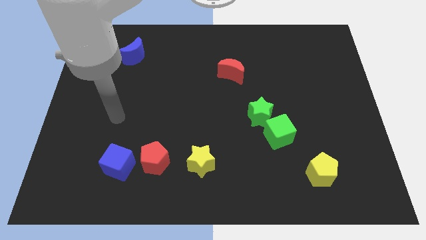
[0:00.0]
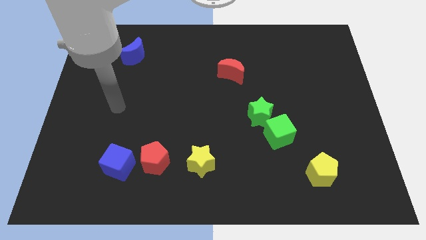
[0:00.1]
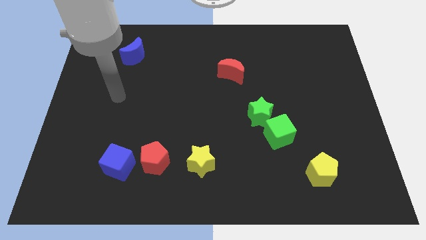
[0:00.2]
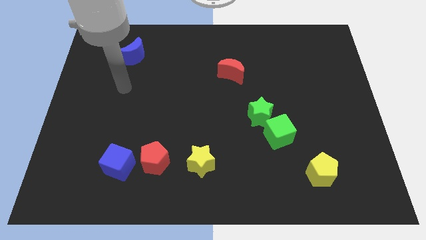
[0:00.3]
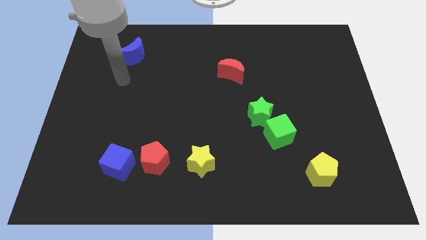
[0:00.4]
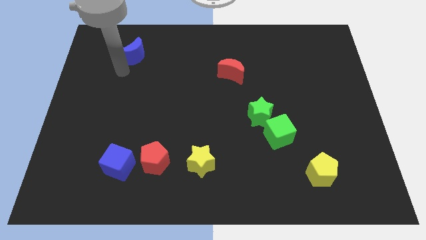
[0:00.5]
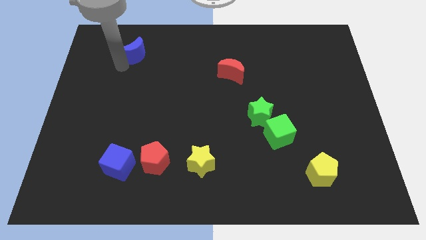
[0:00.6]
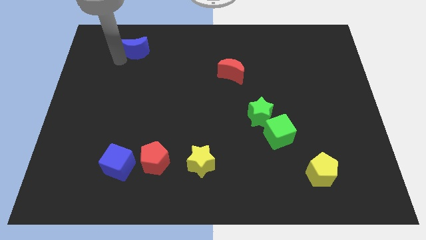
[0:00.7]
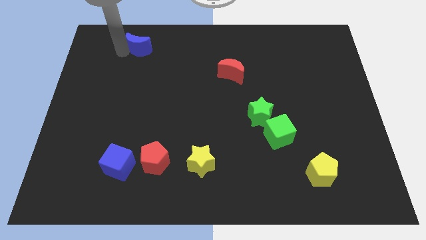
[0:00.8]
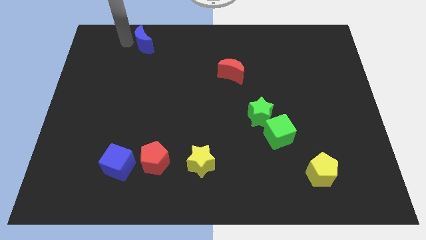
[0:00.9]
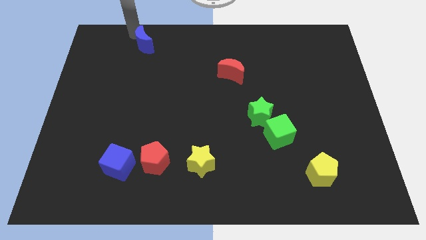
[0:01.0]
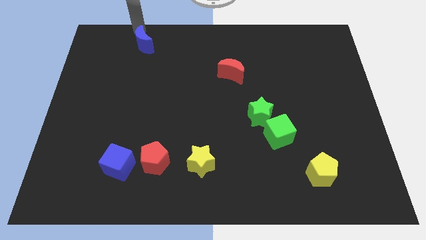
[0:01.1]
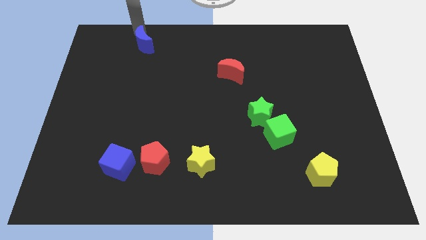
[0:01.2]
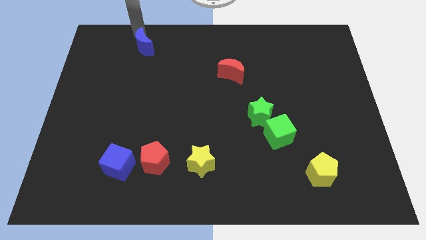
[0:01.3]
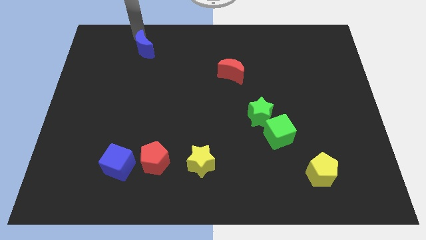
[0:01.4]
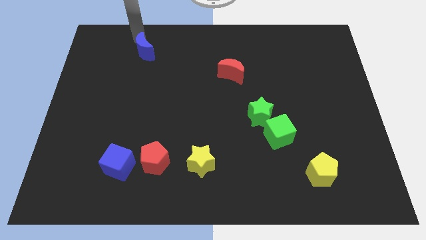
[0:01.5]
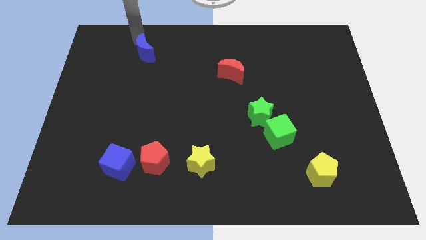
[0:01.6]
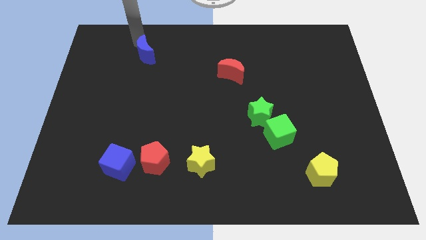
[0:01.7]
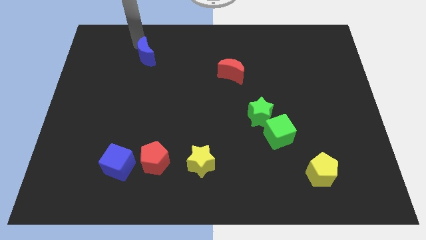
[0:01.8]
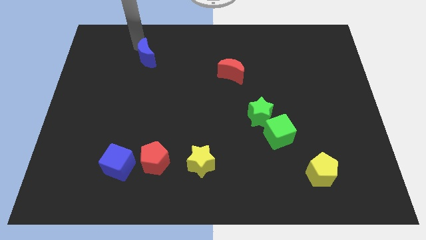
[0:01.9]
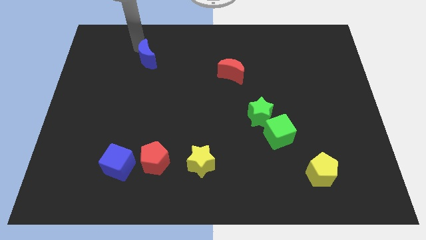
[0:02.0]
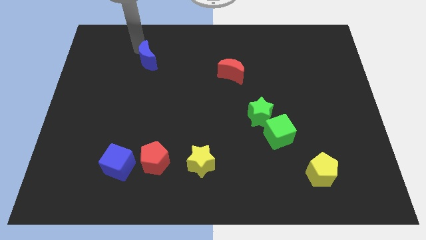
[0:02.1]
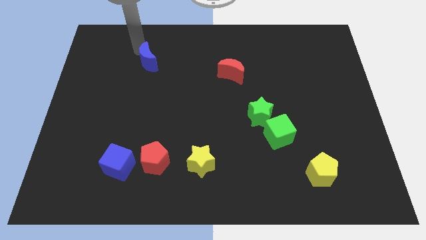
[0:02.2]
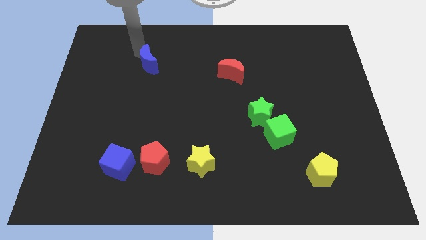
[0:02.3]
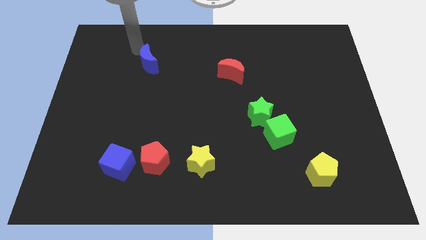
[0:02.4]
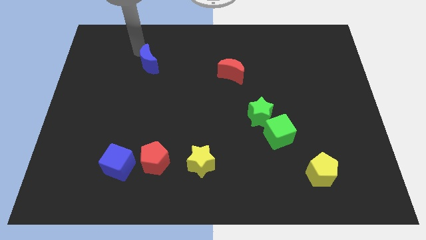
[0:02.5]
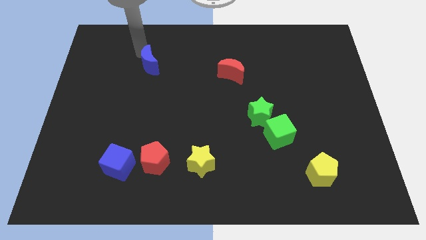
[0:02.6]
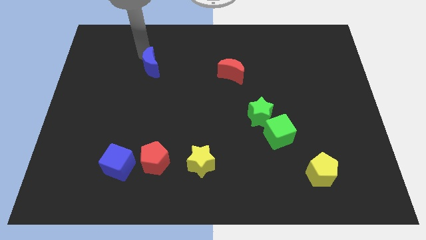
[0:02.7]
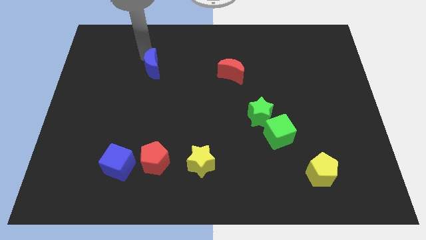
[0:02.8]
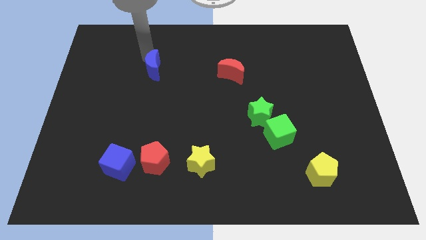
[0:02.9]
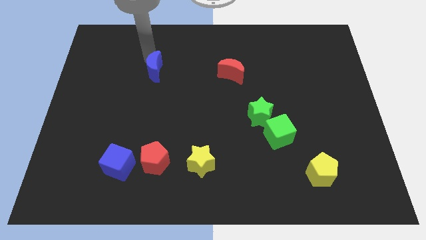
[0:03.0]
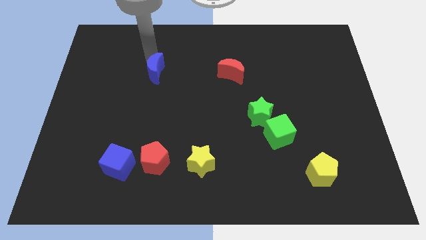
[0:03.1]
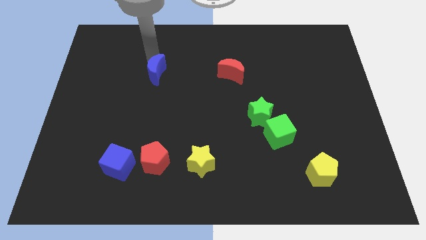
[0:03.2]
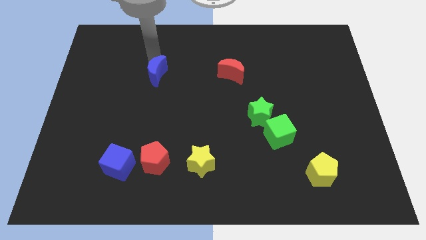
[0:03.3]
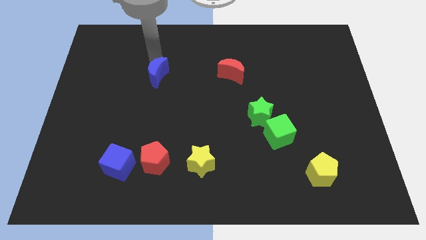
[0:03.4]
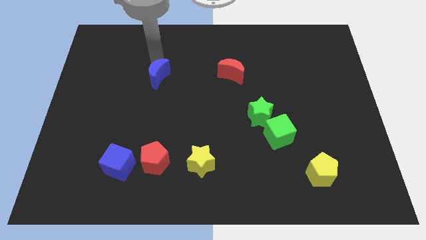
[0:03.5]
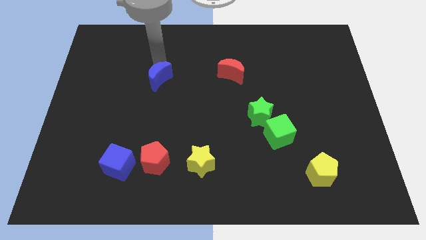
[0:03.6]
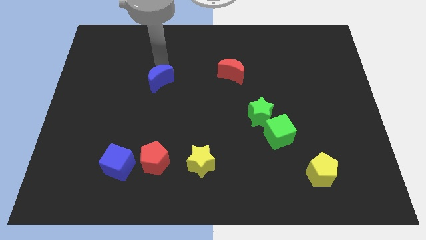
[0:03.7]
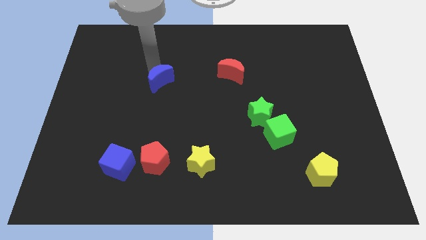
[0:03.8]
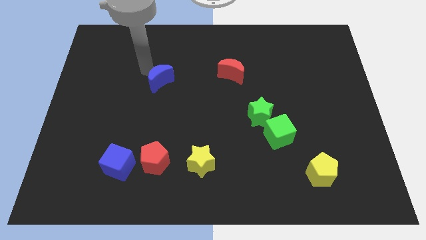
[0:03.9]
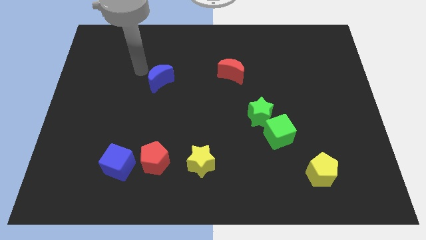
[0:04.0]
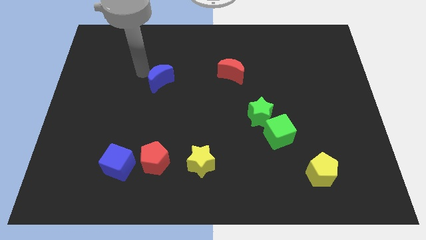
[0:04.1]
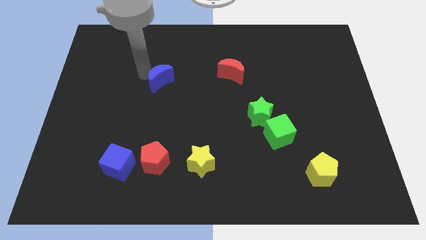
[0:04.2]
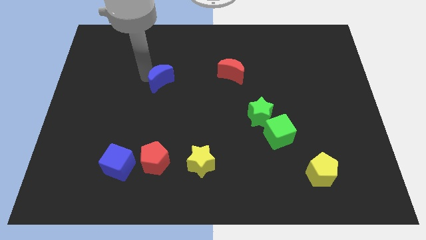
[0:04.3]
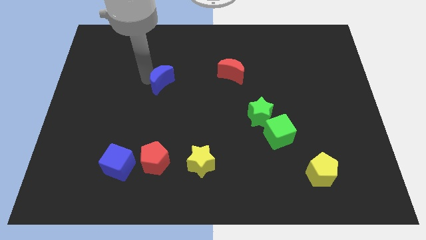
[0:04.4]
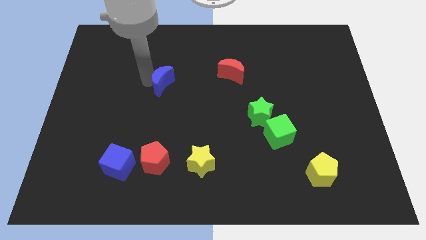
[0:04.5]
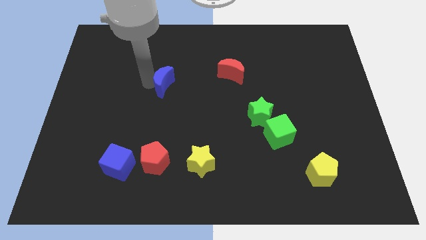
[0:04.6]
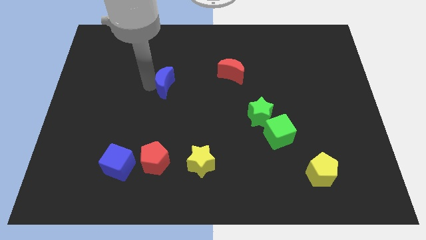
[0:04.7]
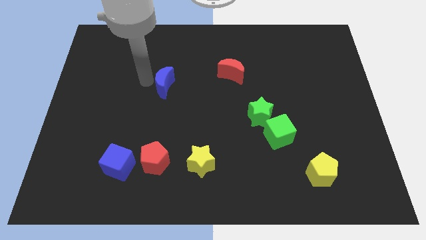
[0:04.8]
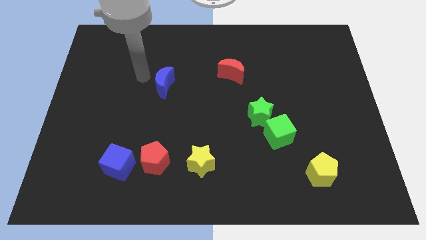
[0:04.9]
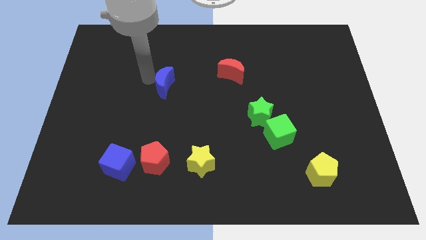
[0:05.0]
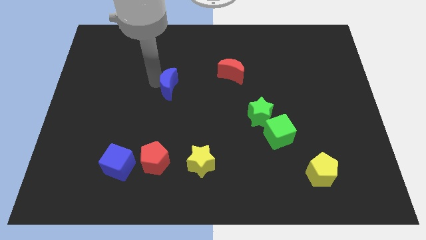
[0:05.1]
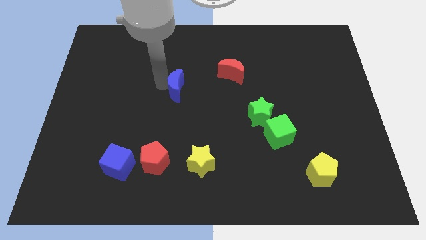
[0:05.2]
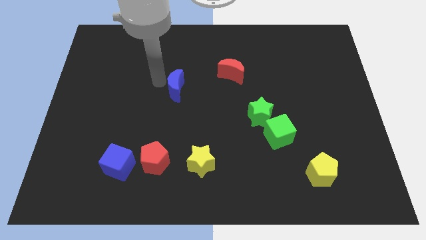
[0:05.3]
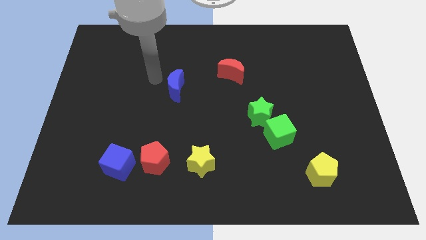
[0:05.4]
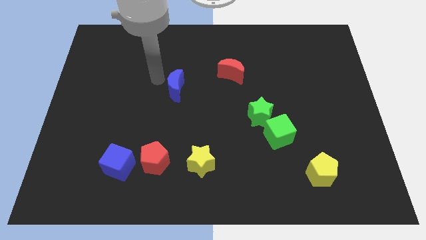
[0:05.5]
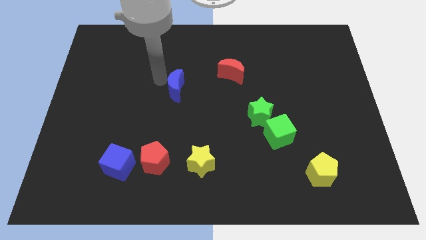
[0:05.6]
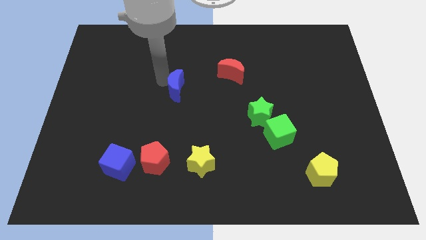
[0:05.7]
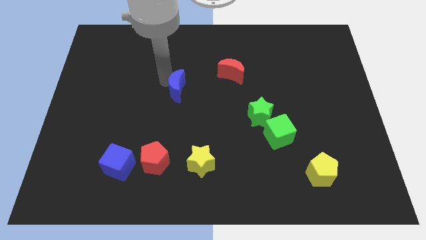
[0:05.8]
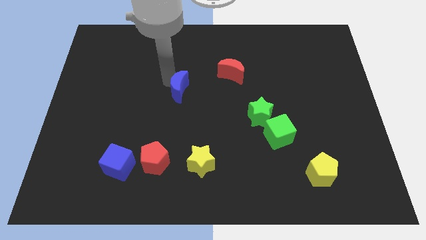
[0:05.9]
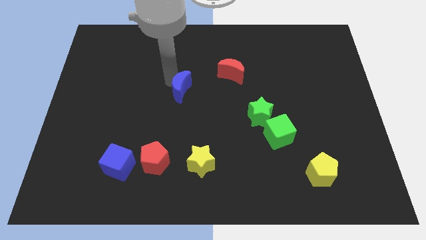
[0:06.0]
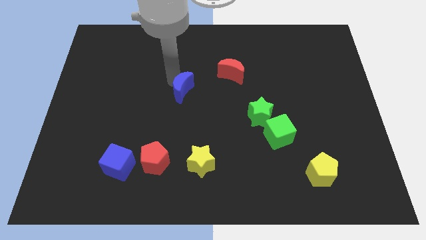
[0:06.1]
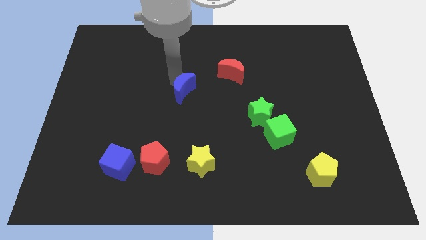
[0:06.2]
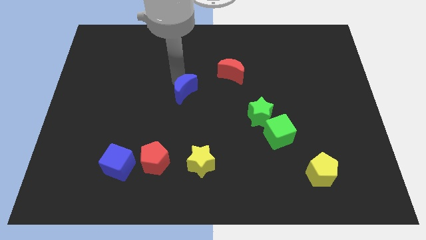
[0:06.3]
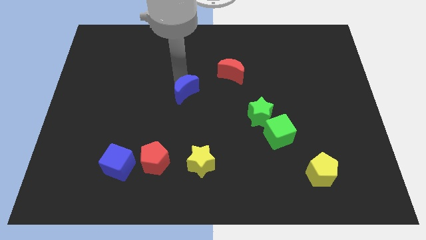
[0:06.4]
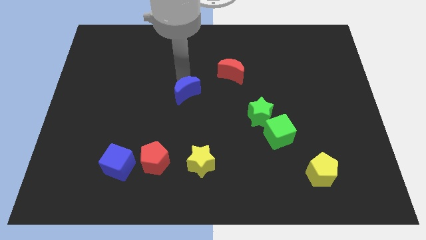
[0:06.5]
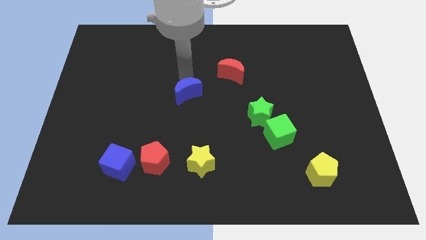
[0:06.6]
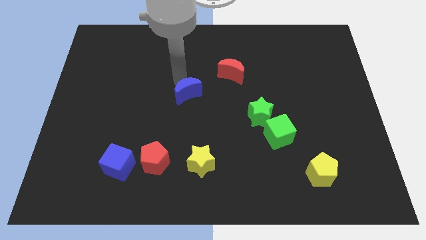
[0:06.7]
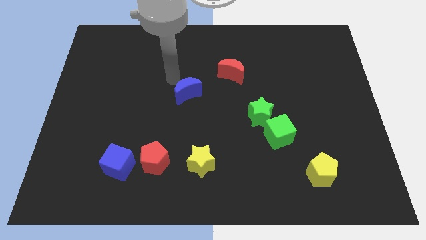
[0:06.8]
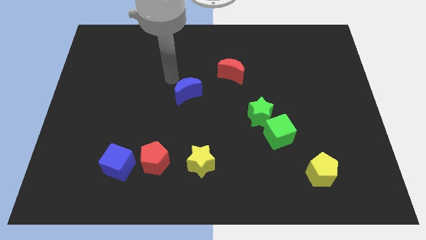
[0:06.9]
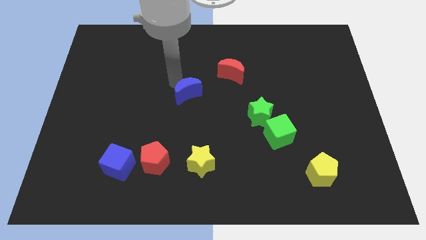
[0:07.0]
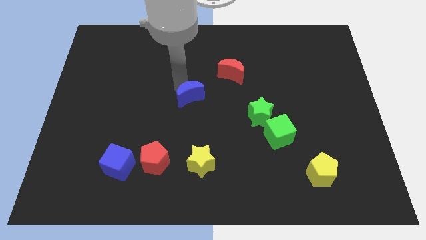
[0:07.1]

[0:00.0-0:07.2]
slide the blue moon down and to the right

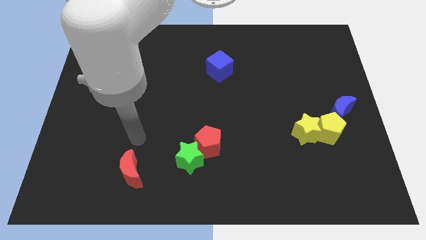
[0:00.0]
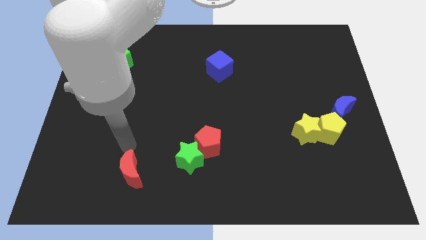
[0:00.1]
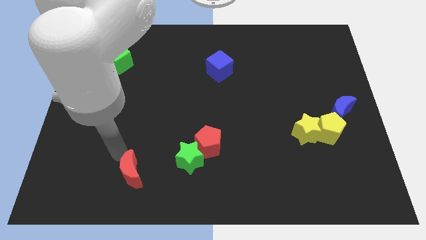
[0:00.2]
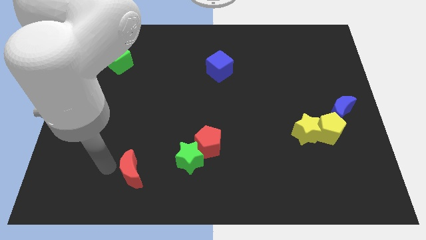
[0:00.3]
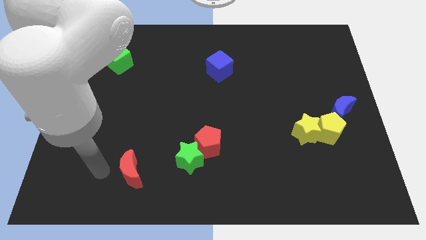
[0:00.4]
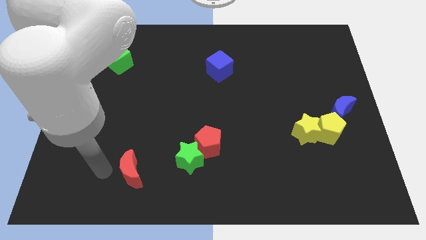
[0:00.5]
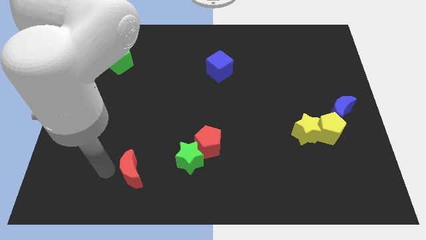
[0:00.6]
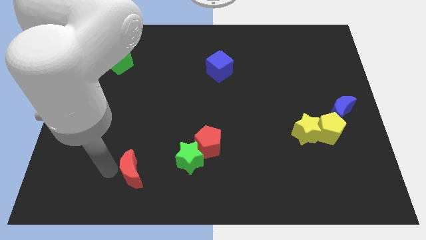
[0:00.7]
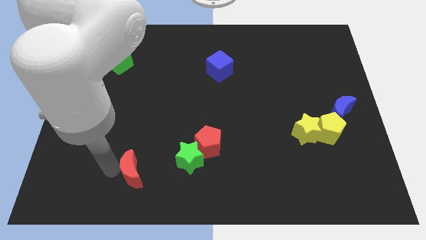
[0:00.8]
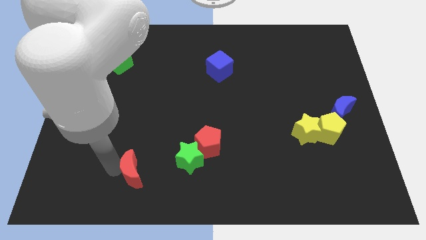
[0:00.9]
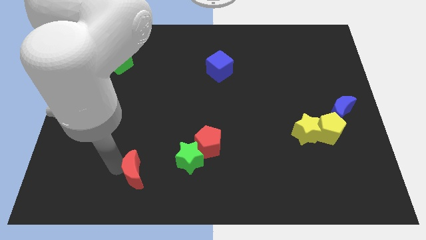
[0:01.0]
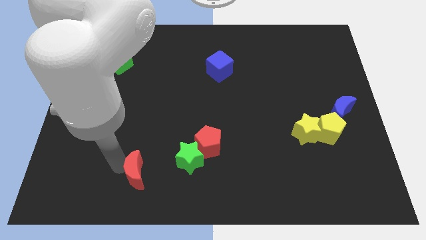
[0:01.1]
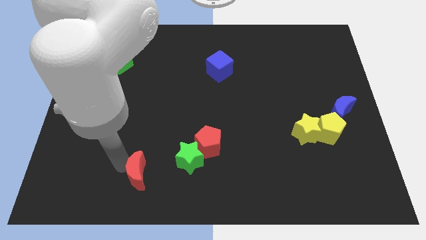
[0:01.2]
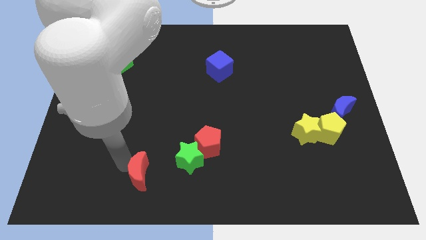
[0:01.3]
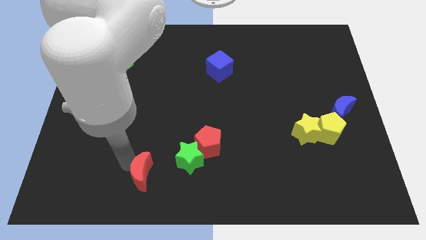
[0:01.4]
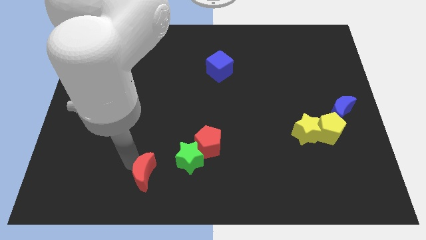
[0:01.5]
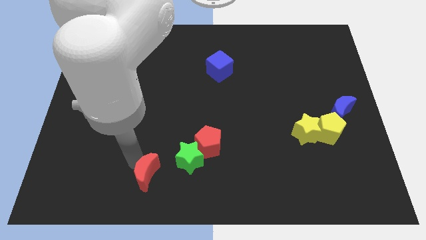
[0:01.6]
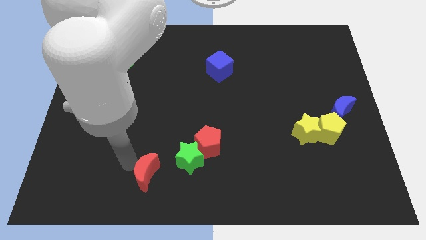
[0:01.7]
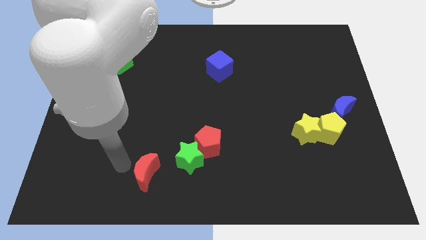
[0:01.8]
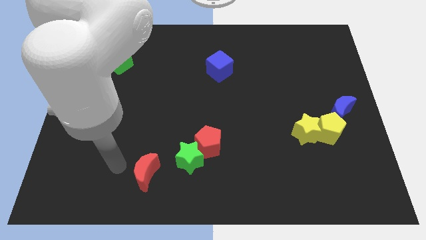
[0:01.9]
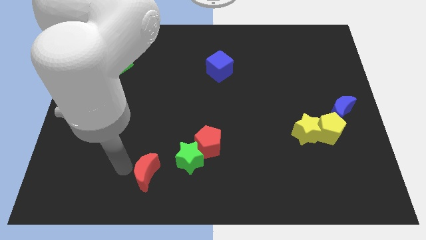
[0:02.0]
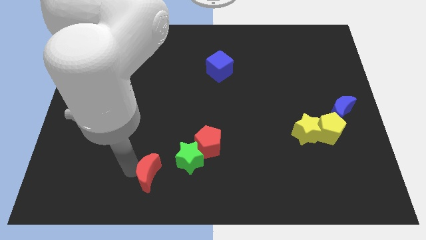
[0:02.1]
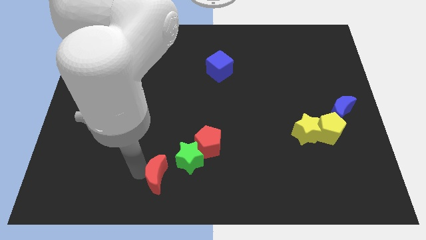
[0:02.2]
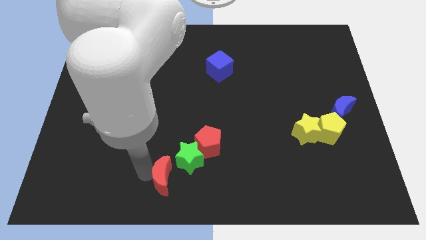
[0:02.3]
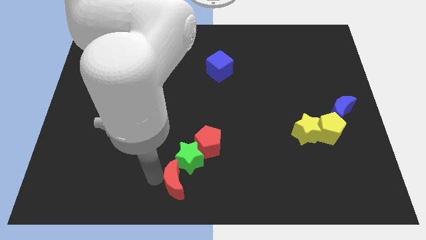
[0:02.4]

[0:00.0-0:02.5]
slide the red moon a bit right
